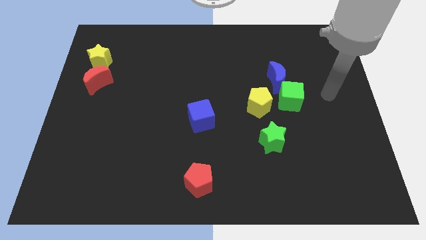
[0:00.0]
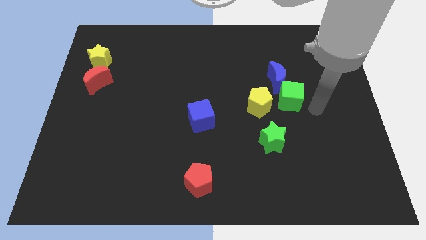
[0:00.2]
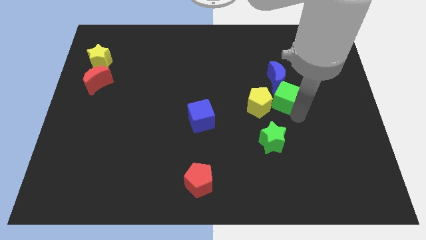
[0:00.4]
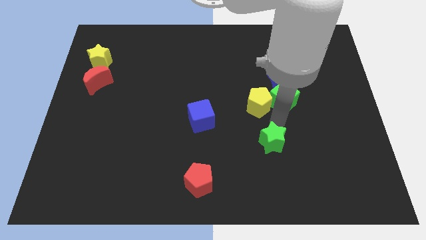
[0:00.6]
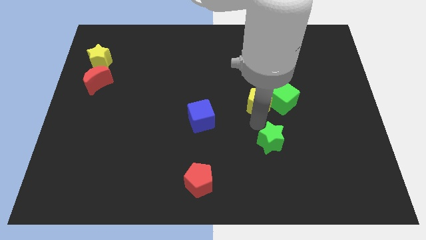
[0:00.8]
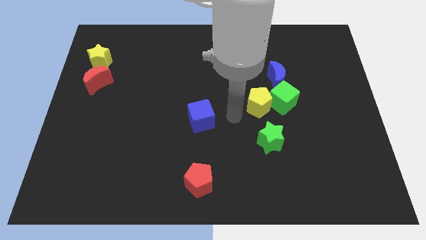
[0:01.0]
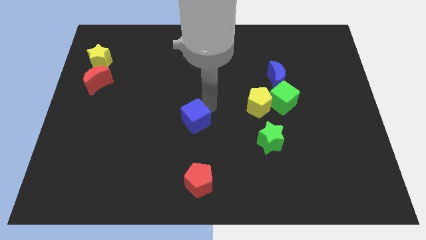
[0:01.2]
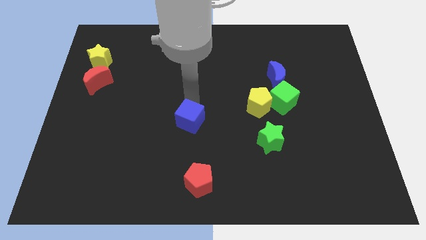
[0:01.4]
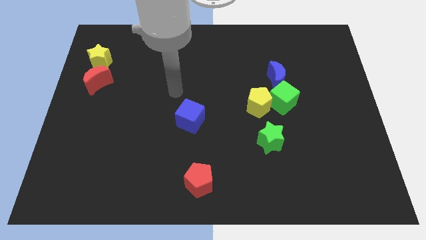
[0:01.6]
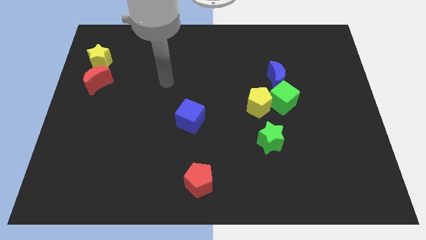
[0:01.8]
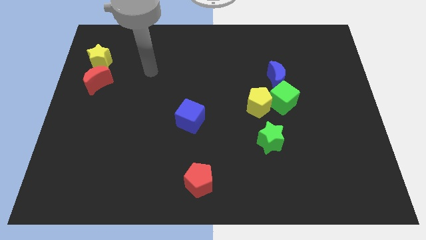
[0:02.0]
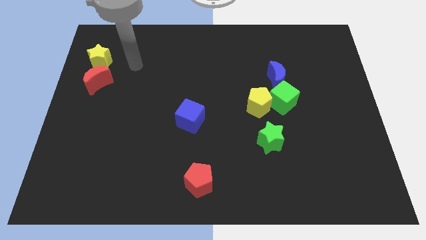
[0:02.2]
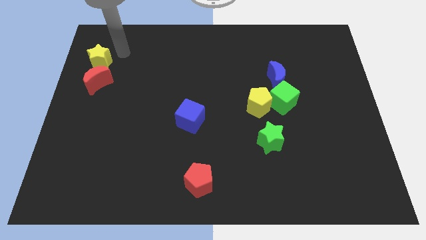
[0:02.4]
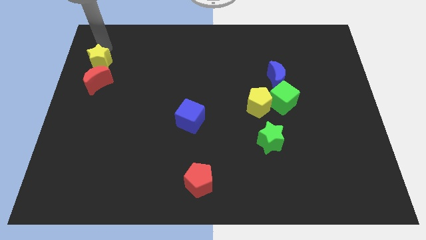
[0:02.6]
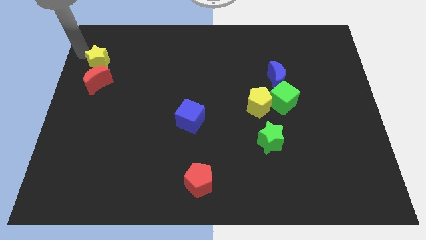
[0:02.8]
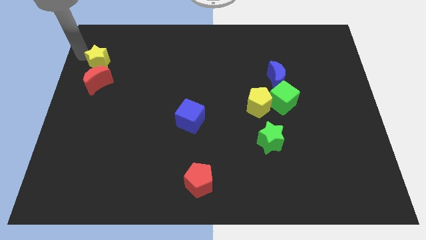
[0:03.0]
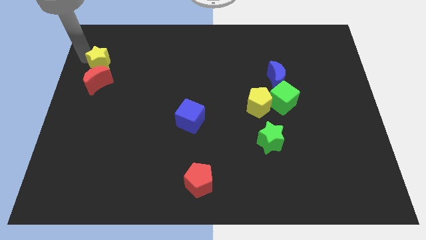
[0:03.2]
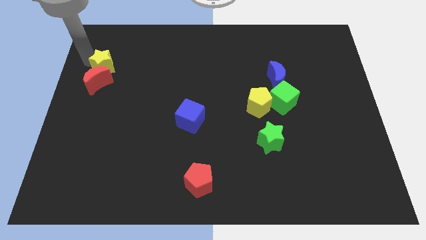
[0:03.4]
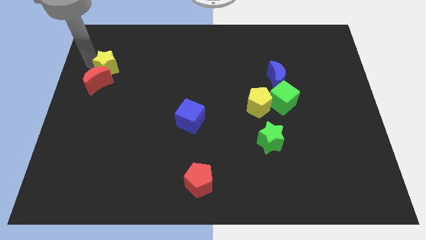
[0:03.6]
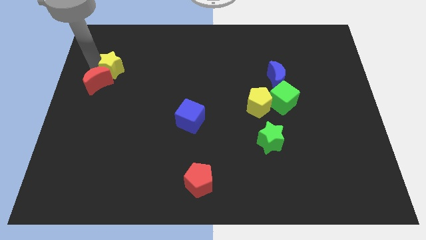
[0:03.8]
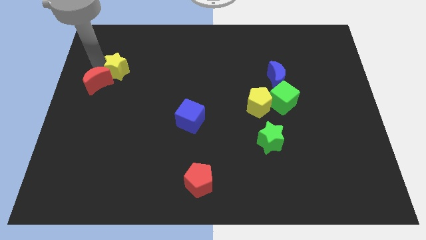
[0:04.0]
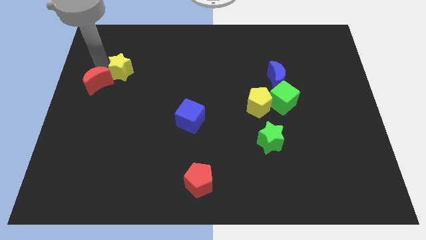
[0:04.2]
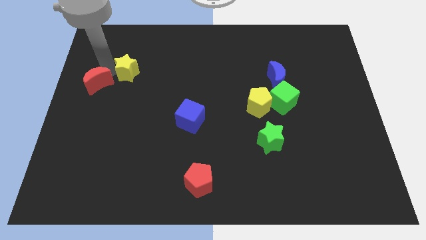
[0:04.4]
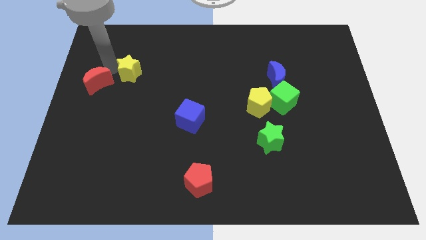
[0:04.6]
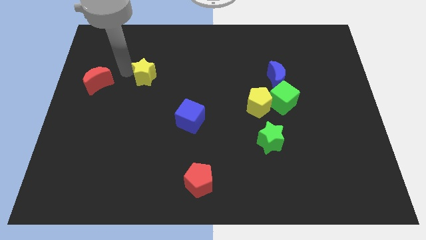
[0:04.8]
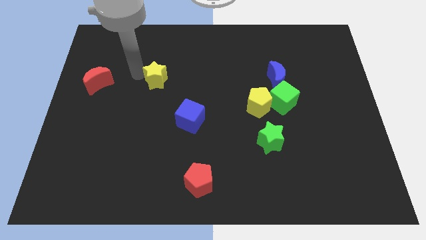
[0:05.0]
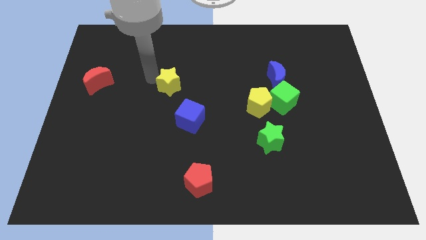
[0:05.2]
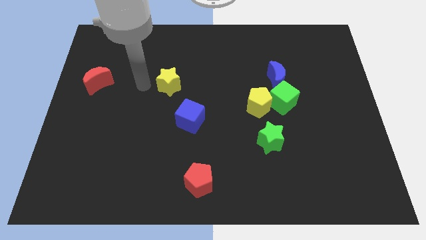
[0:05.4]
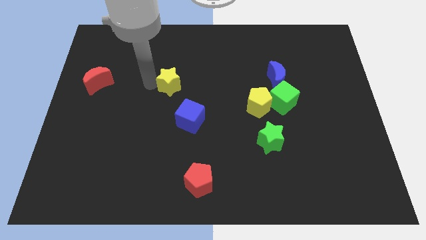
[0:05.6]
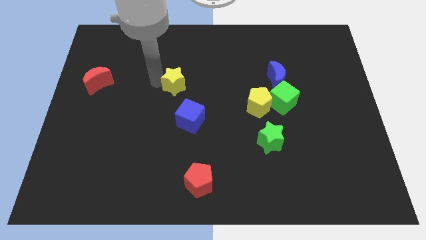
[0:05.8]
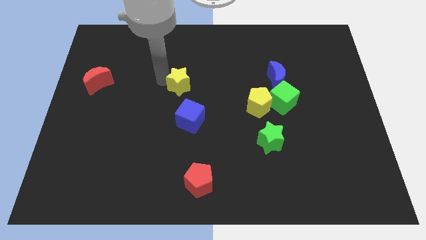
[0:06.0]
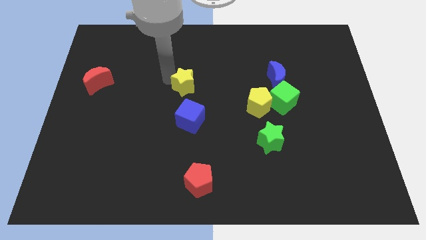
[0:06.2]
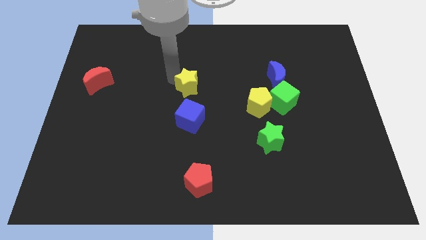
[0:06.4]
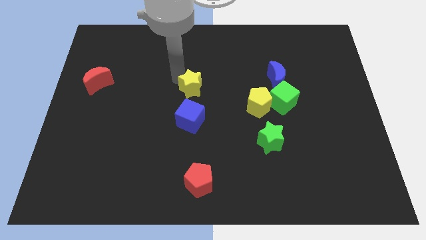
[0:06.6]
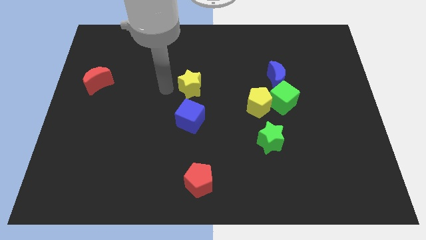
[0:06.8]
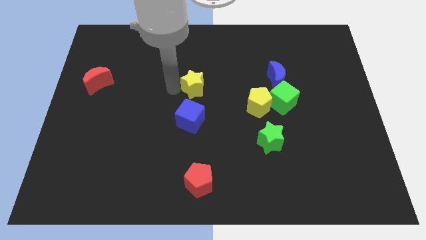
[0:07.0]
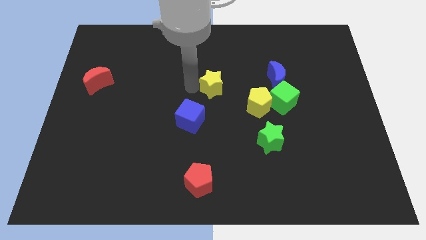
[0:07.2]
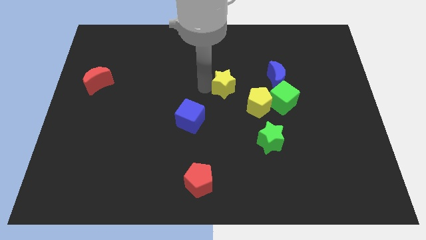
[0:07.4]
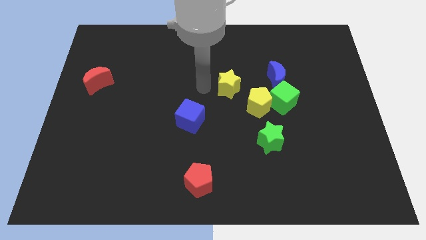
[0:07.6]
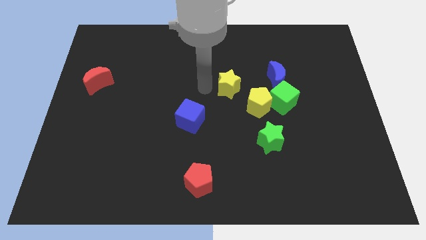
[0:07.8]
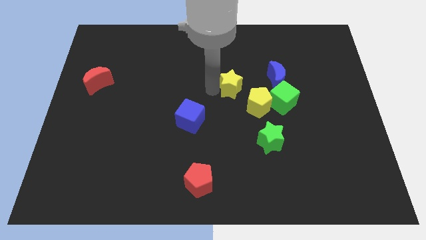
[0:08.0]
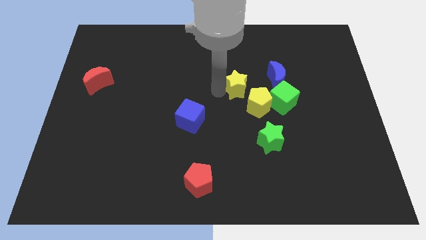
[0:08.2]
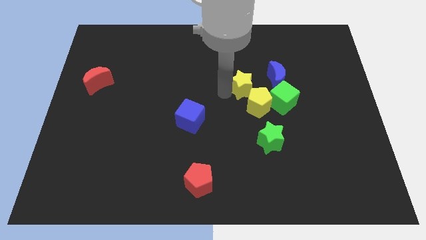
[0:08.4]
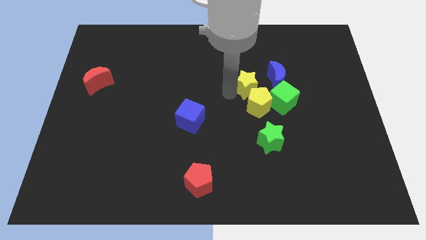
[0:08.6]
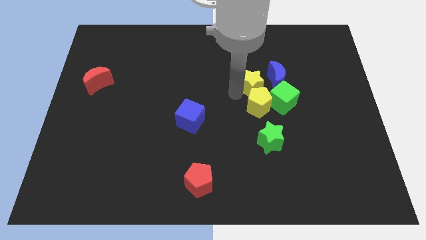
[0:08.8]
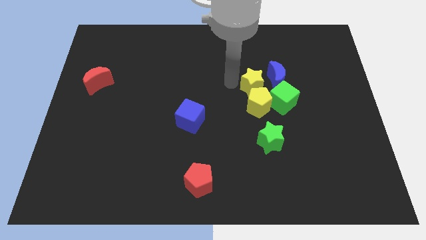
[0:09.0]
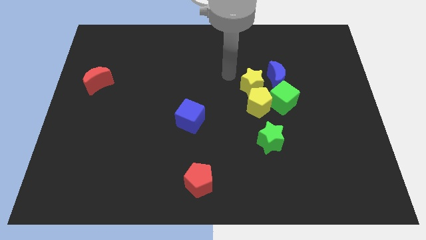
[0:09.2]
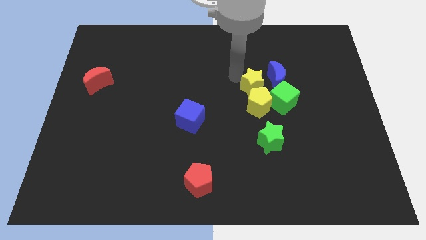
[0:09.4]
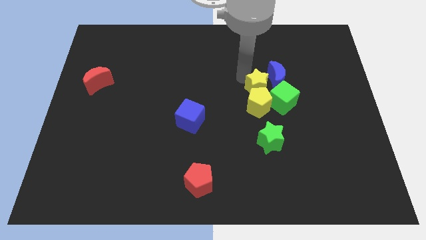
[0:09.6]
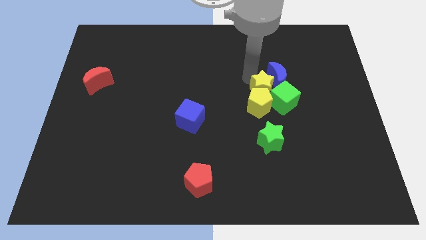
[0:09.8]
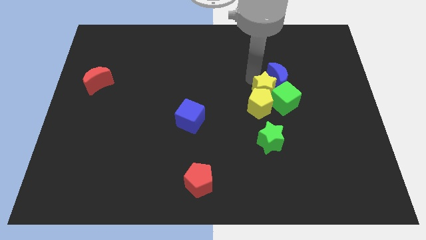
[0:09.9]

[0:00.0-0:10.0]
slide the yellow star next to the green cube

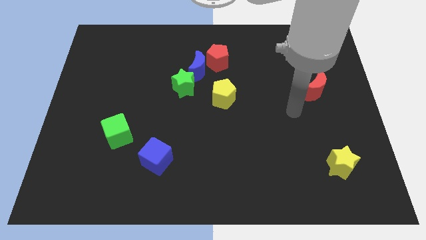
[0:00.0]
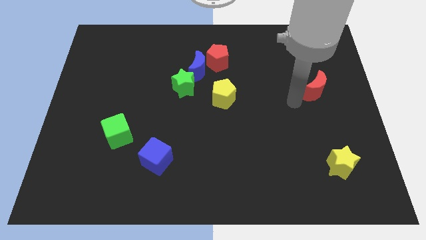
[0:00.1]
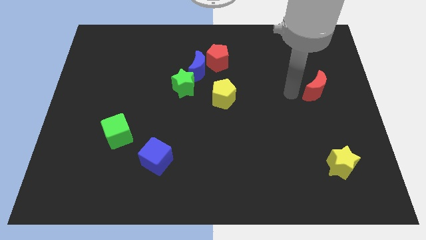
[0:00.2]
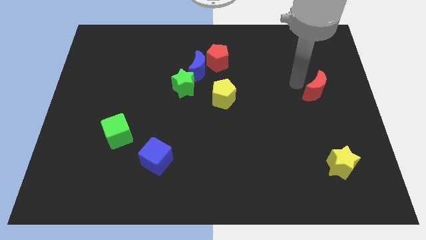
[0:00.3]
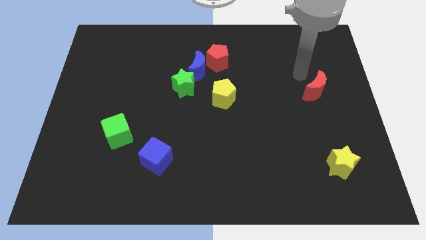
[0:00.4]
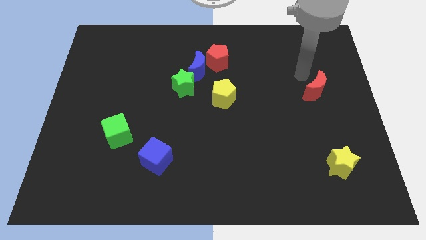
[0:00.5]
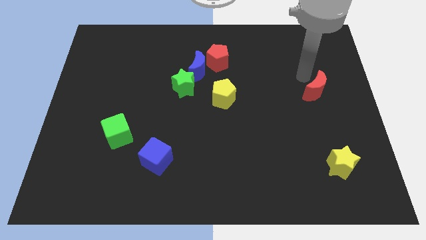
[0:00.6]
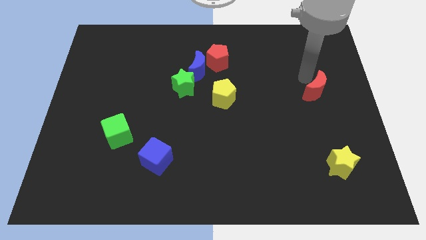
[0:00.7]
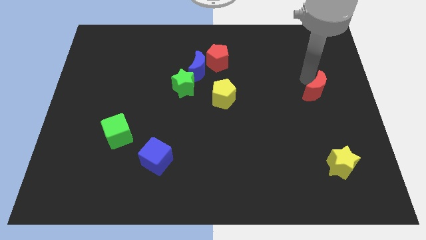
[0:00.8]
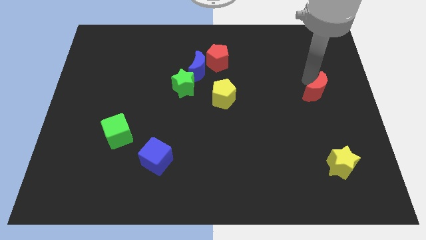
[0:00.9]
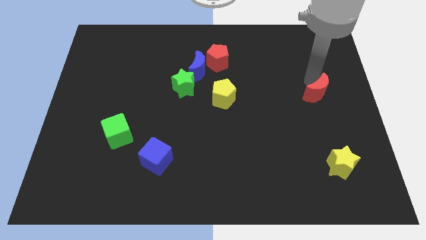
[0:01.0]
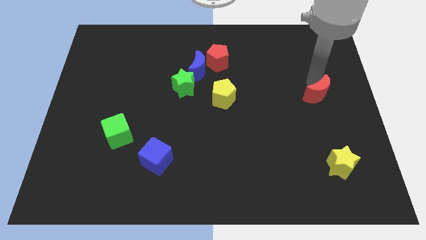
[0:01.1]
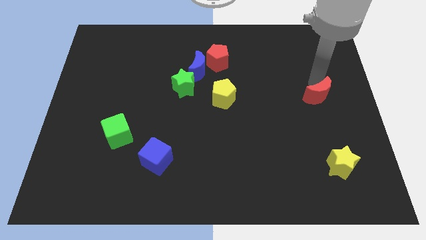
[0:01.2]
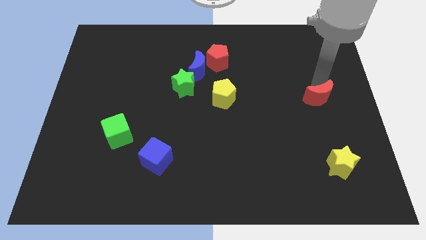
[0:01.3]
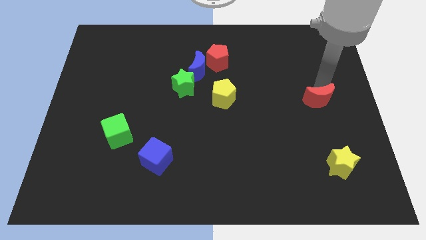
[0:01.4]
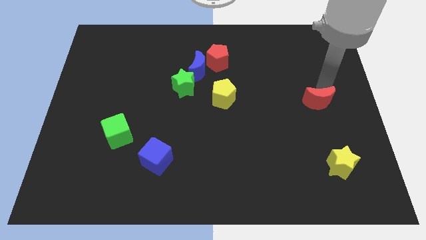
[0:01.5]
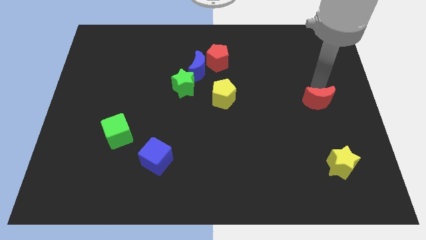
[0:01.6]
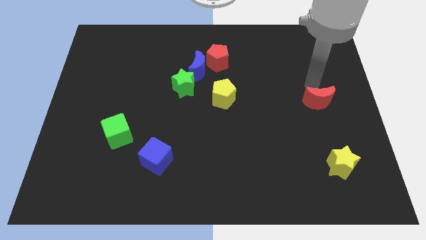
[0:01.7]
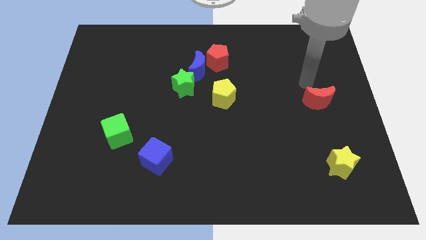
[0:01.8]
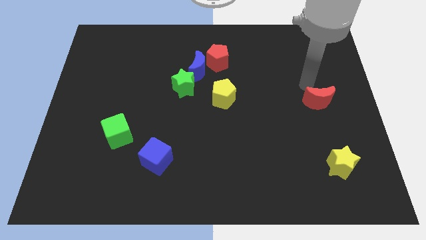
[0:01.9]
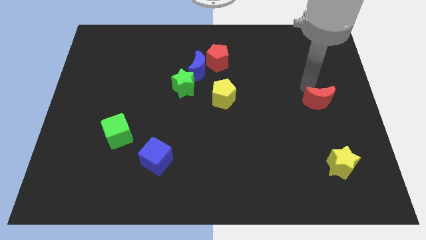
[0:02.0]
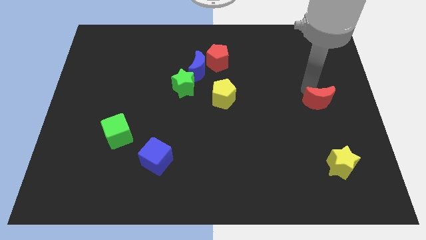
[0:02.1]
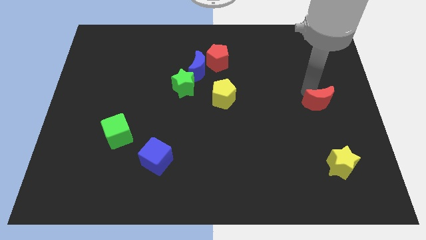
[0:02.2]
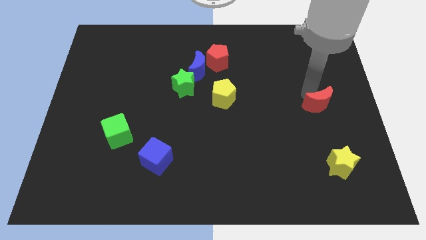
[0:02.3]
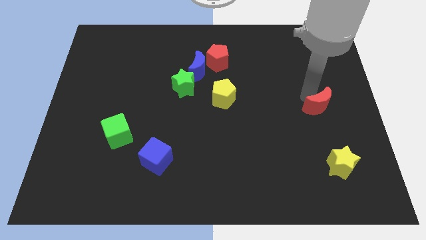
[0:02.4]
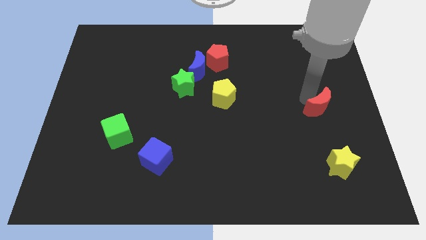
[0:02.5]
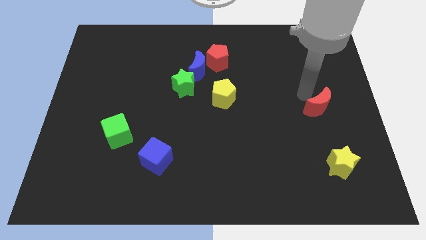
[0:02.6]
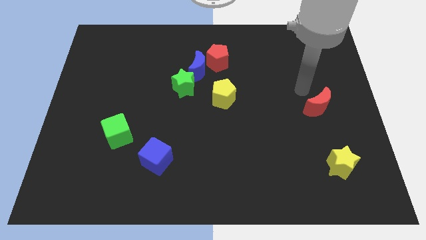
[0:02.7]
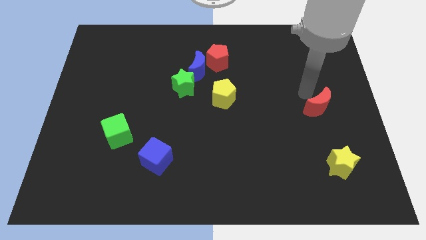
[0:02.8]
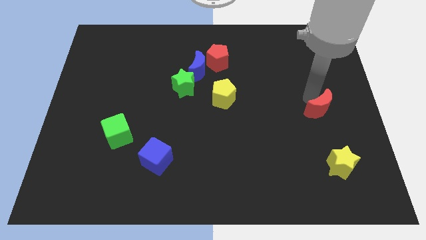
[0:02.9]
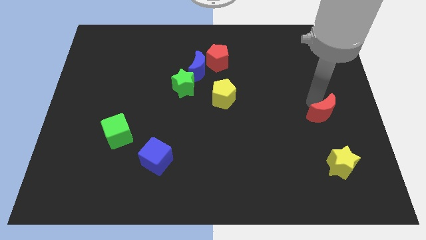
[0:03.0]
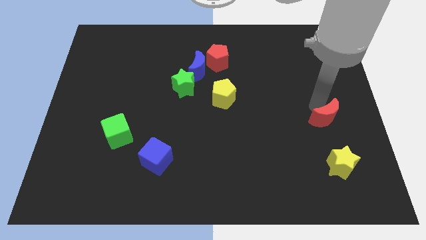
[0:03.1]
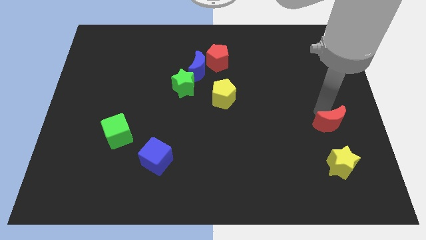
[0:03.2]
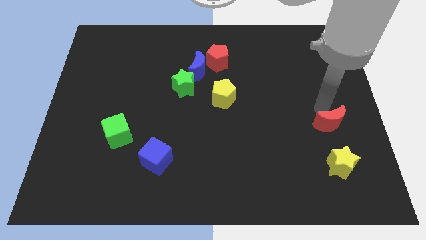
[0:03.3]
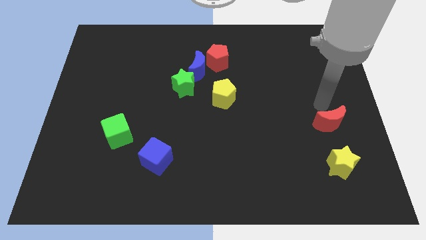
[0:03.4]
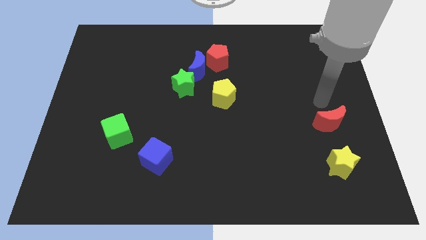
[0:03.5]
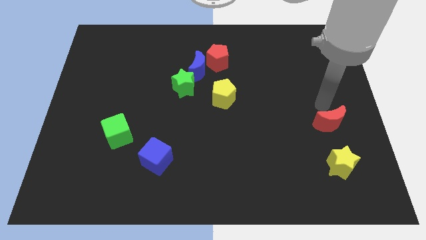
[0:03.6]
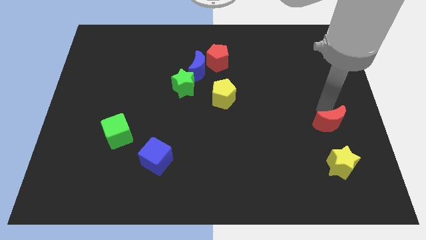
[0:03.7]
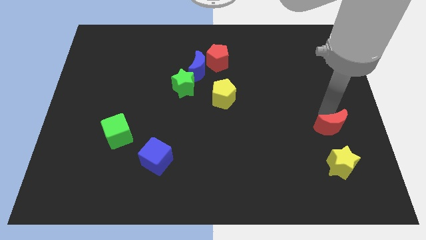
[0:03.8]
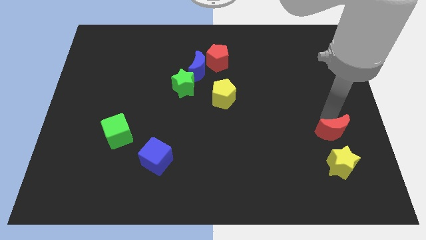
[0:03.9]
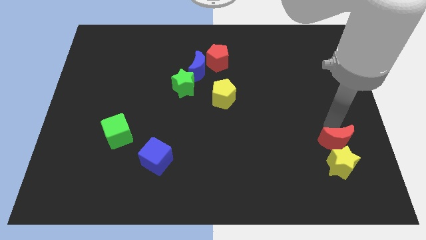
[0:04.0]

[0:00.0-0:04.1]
push the red moon close to the yellow star
